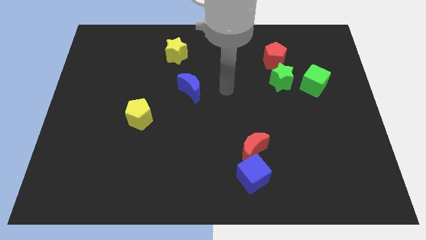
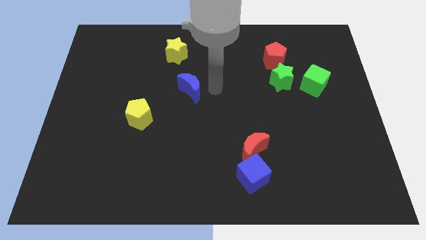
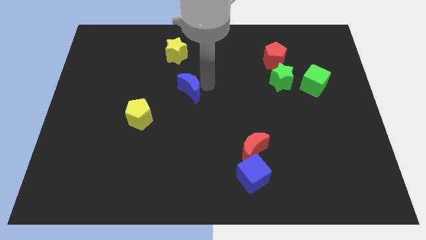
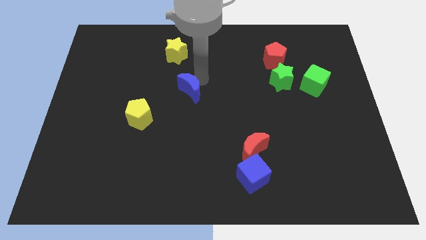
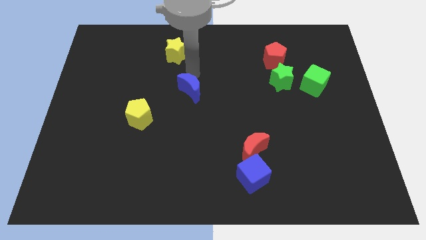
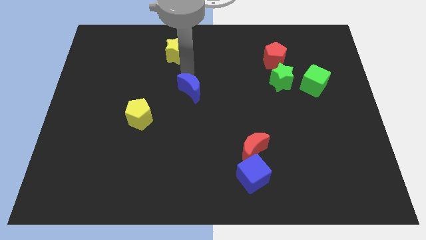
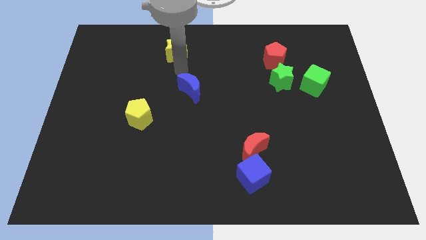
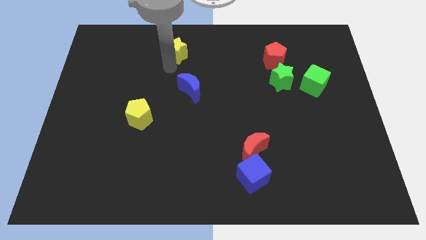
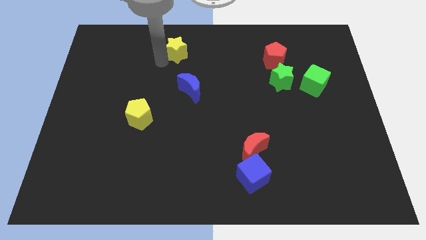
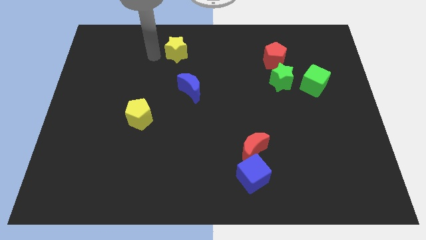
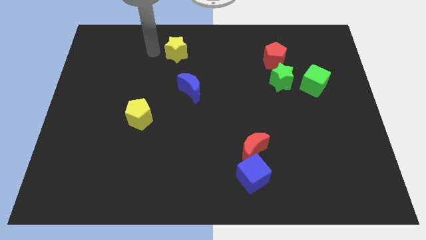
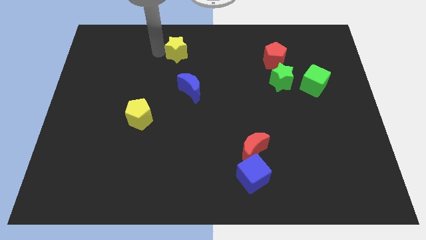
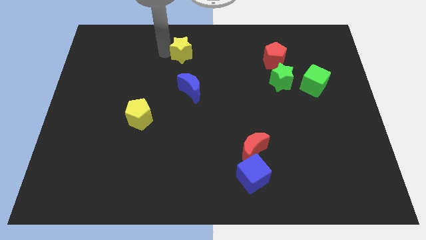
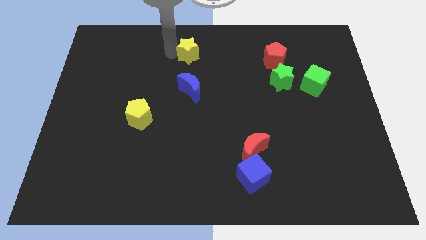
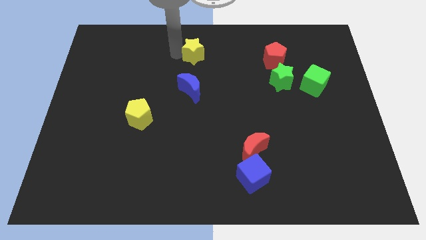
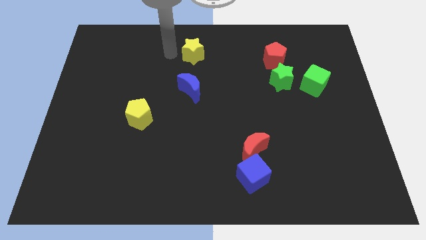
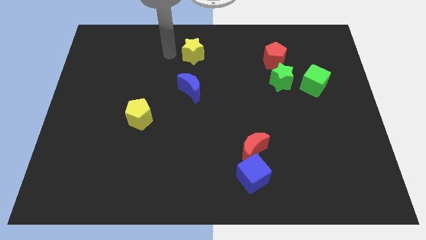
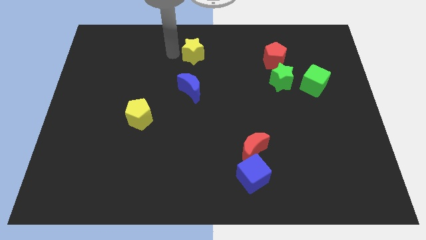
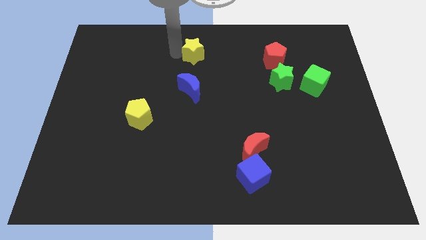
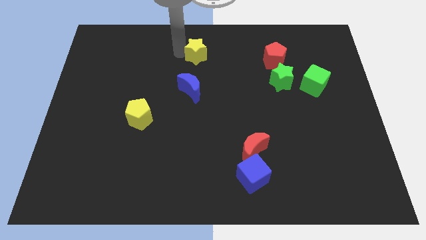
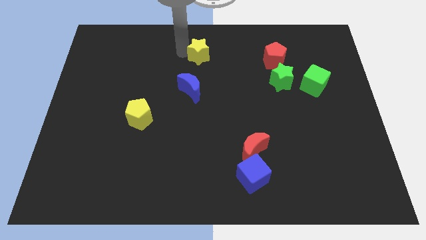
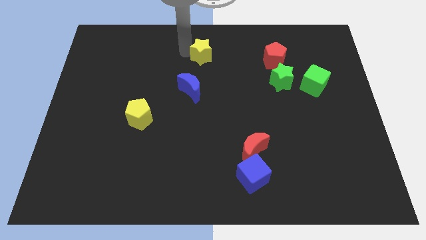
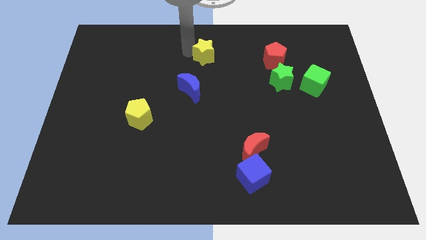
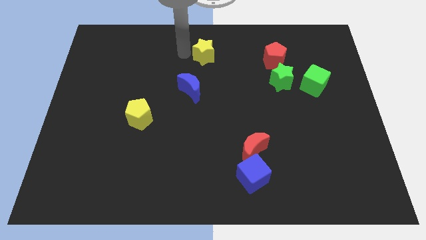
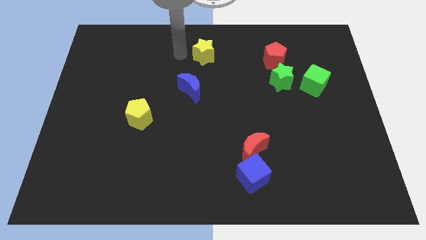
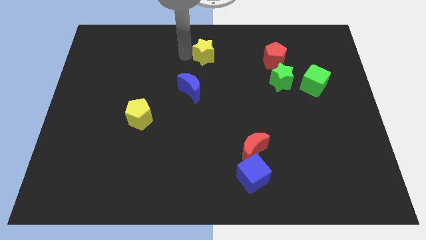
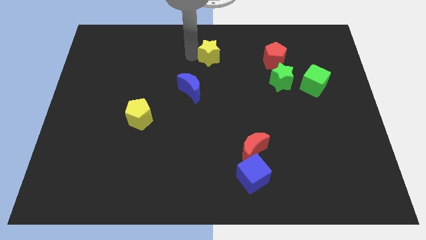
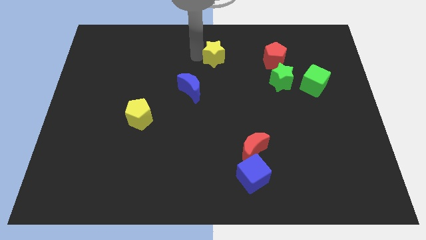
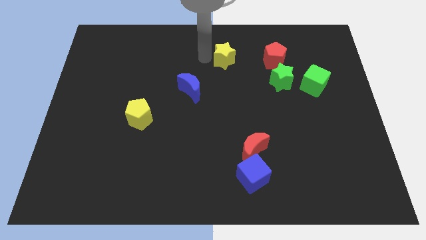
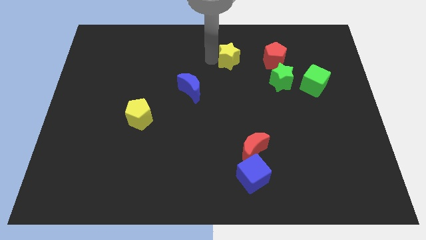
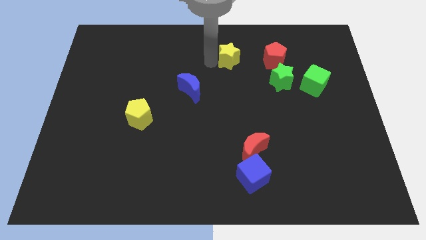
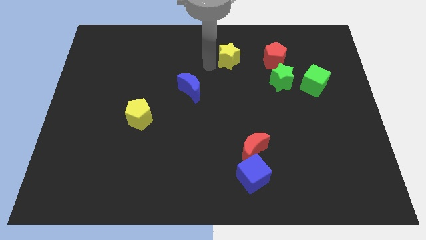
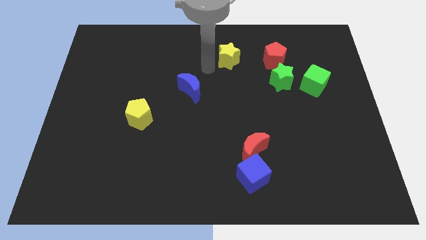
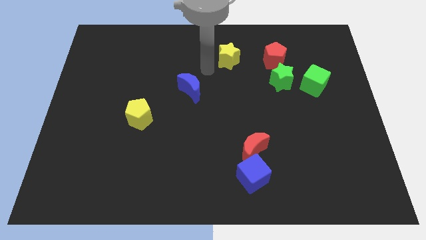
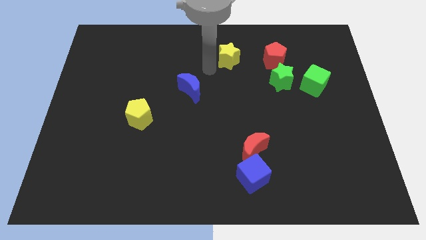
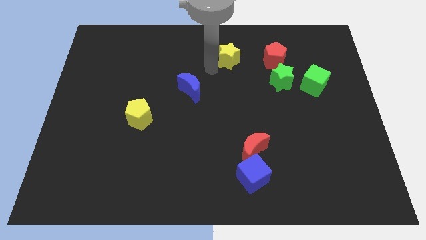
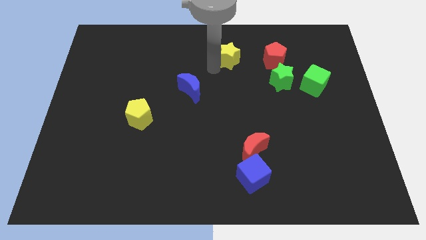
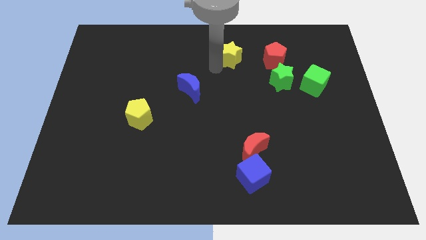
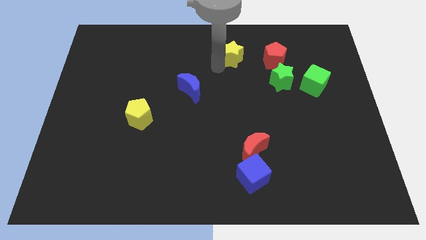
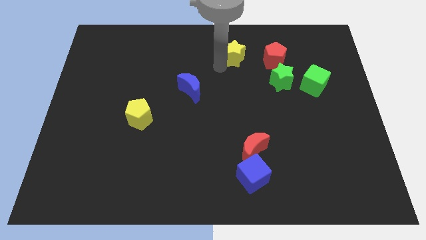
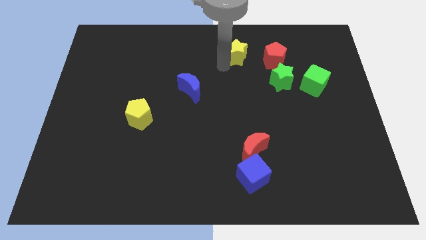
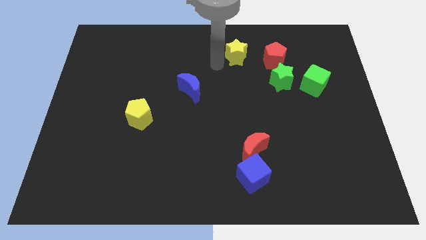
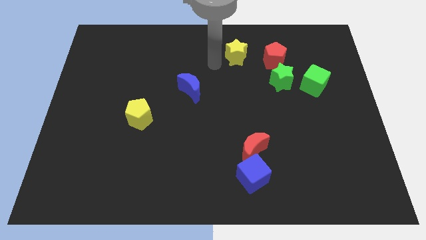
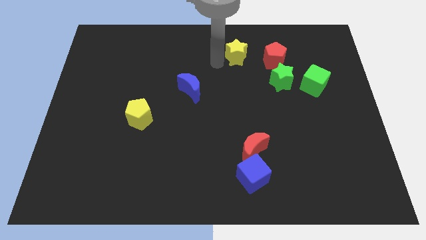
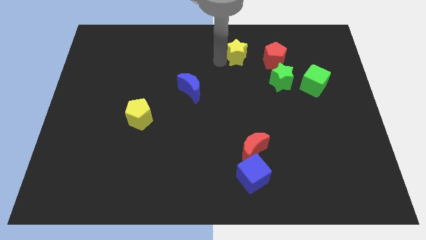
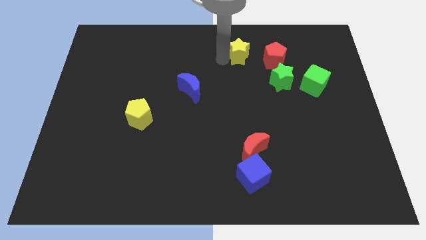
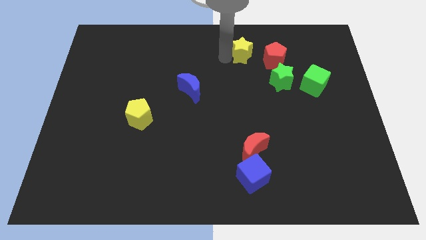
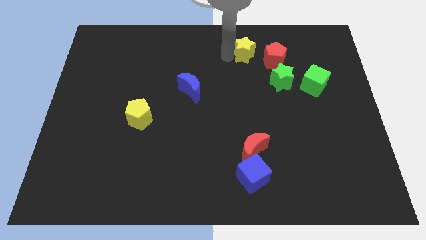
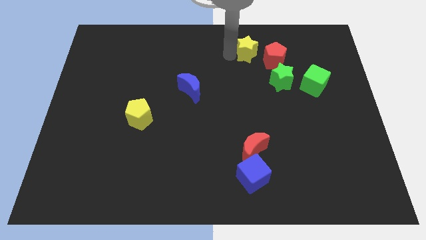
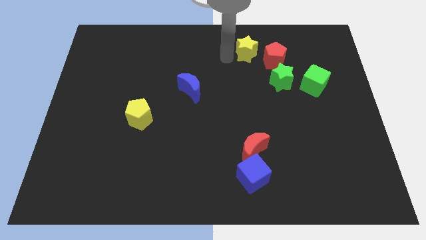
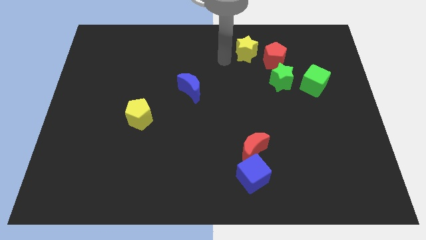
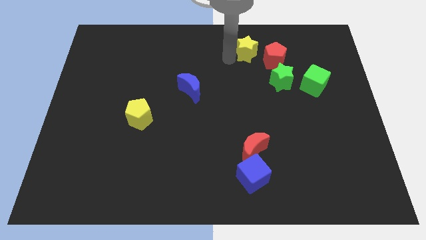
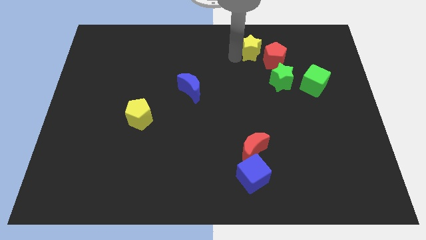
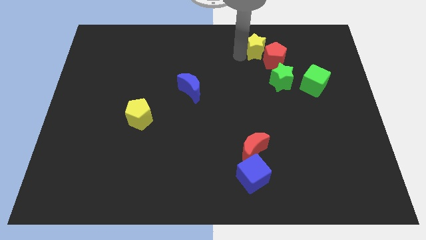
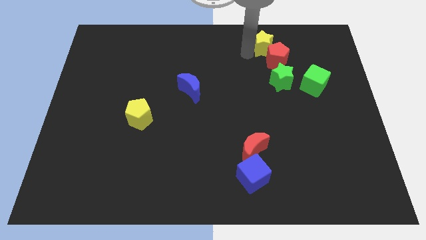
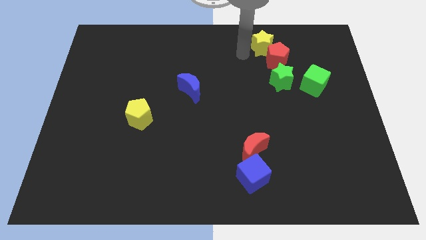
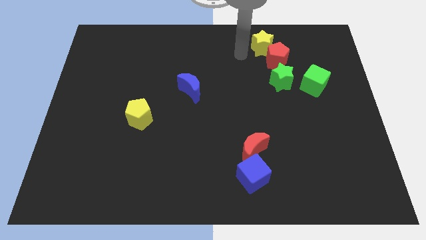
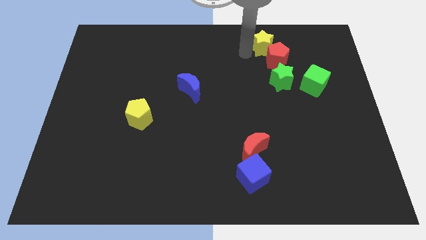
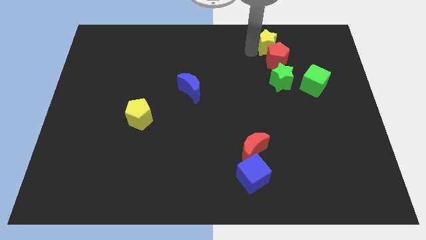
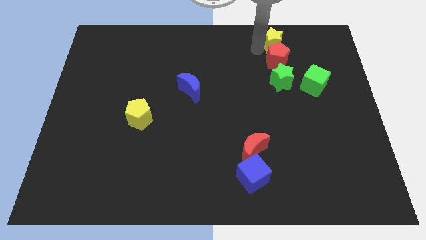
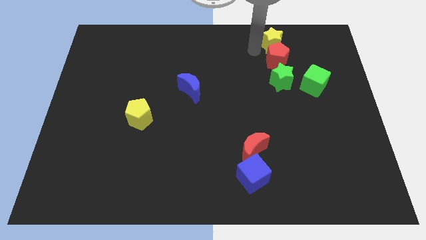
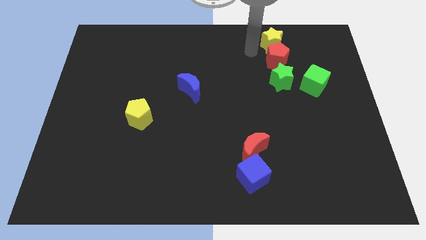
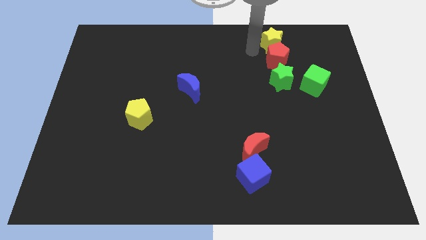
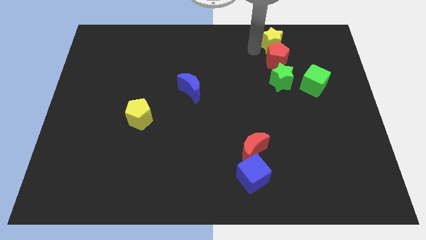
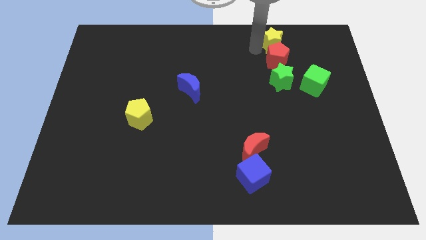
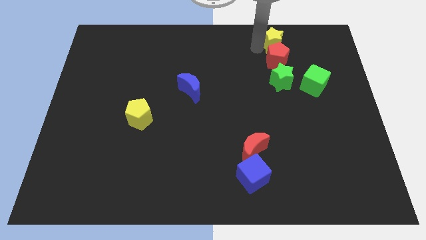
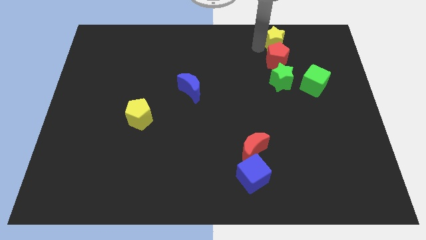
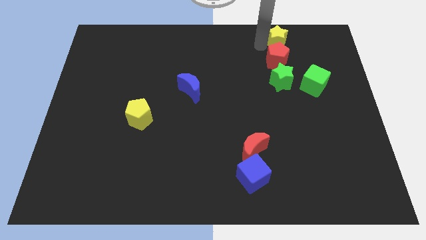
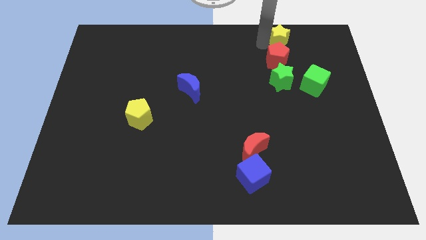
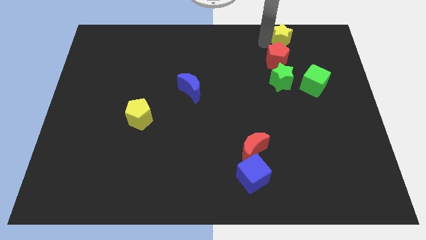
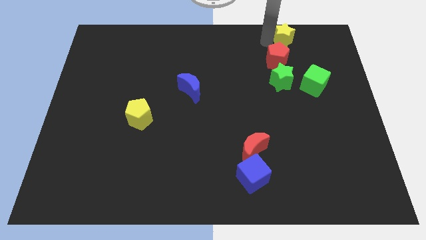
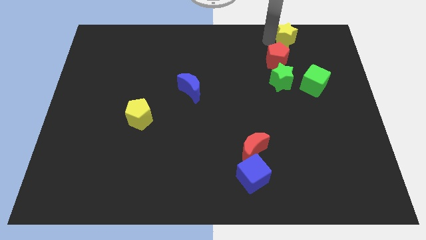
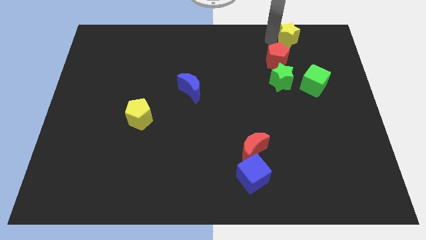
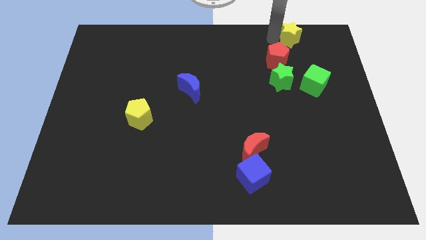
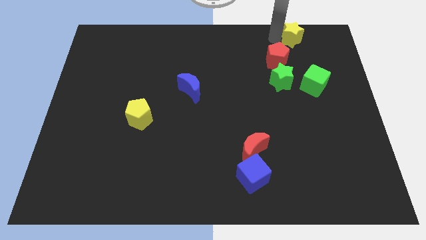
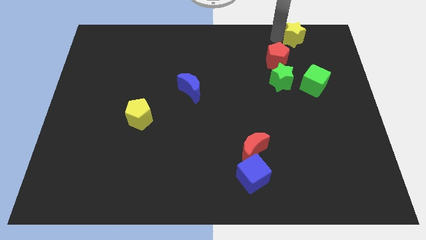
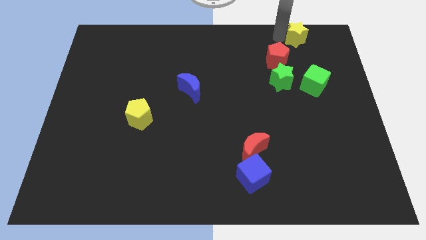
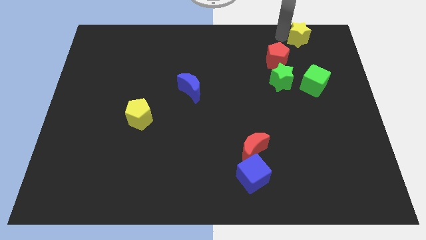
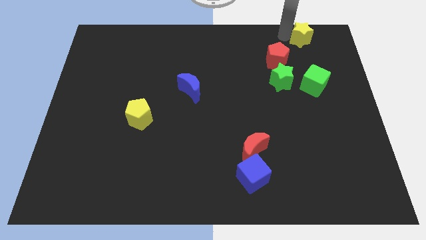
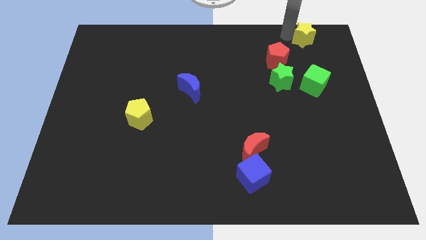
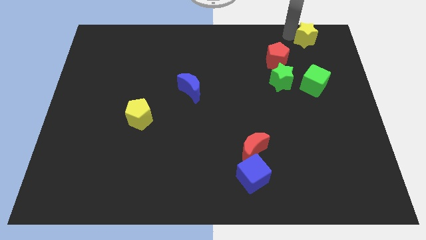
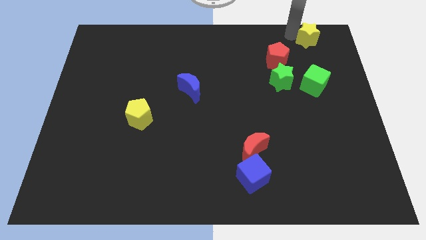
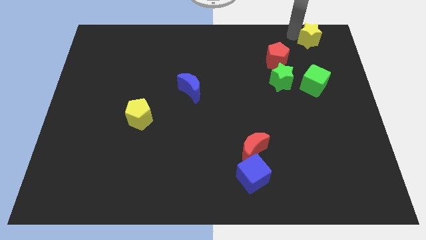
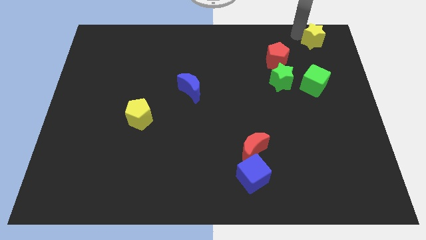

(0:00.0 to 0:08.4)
move the yellow star to the top right corner
